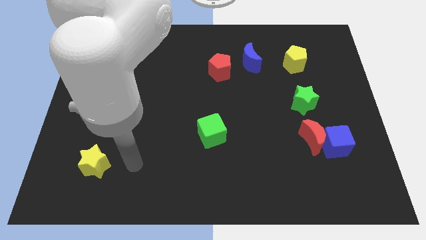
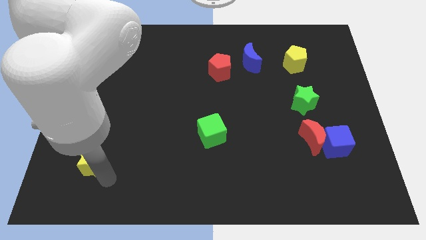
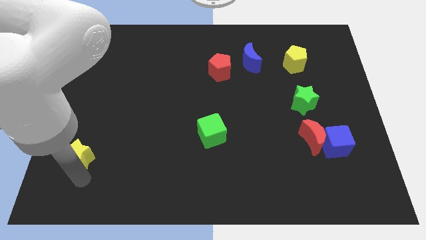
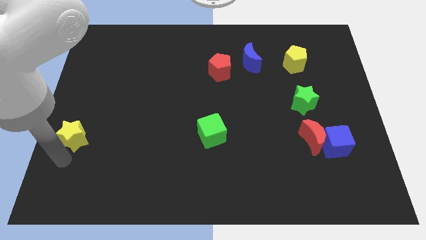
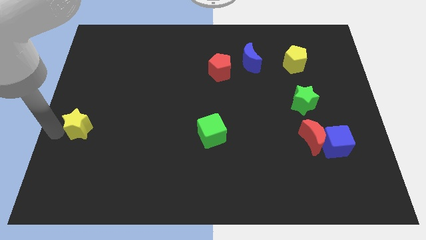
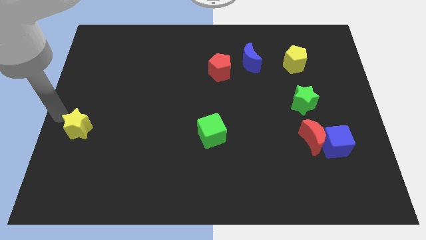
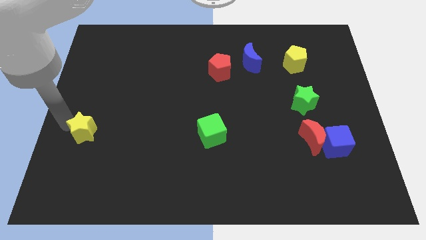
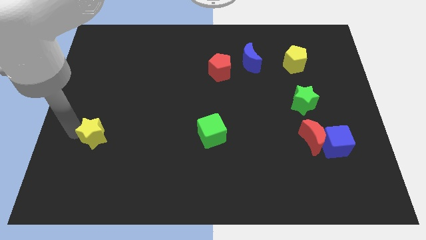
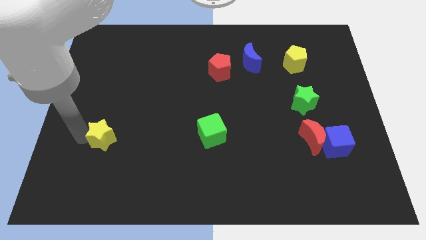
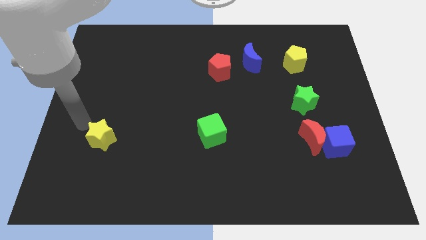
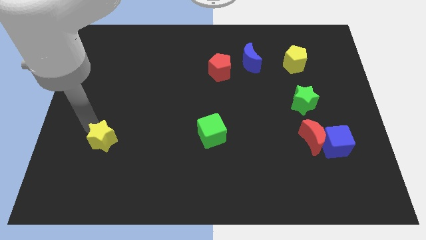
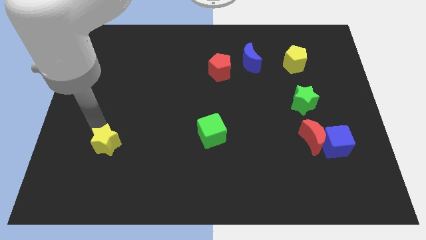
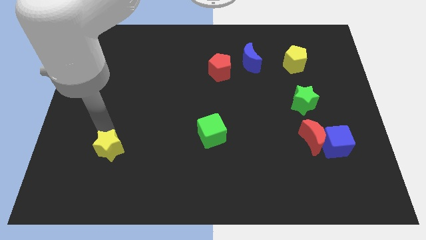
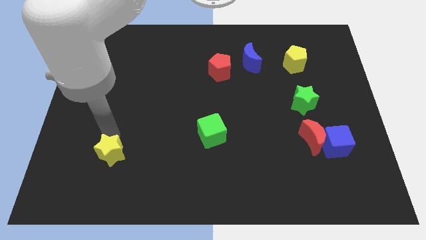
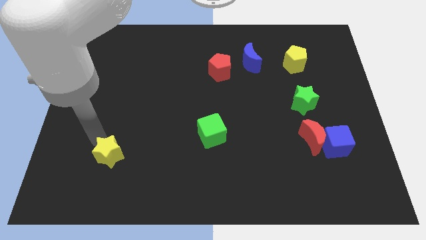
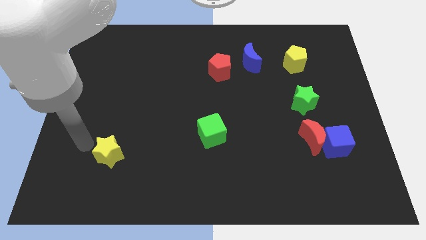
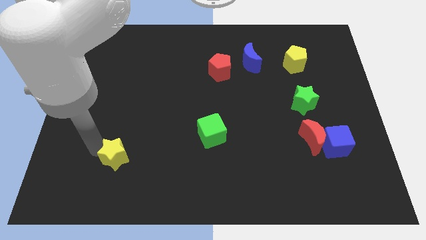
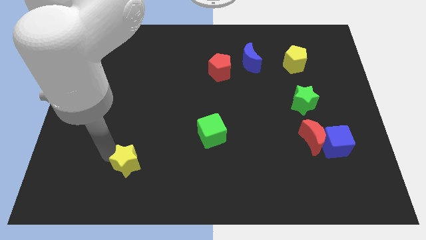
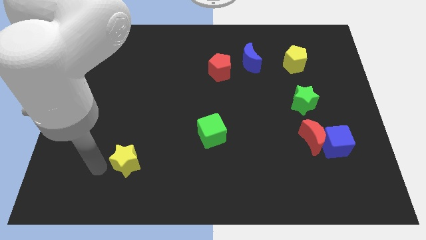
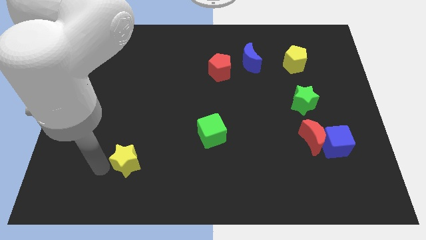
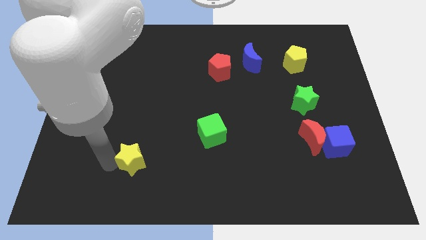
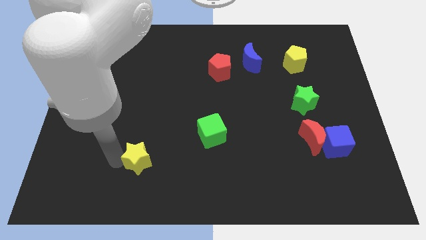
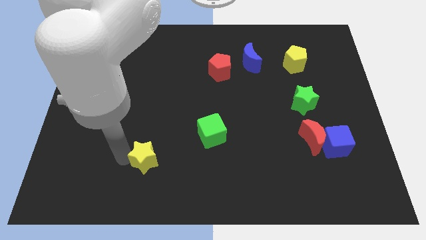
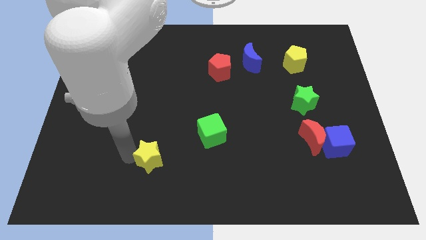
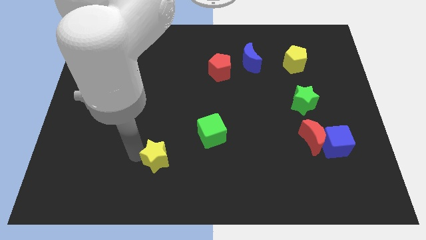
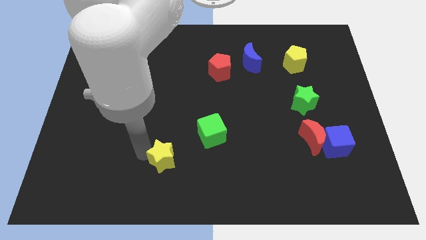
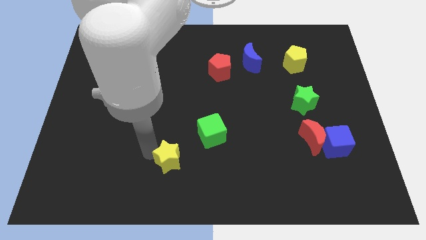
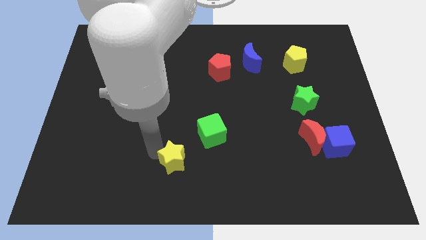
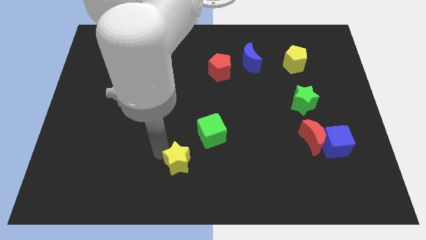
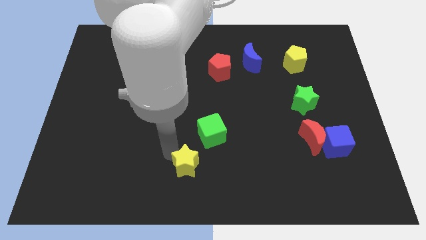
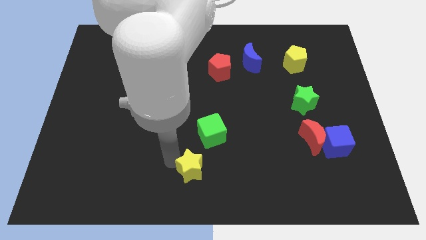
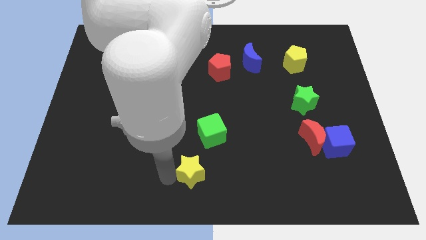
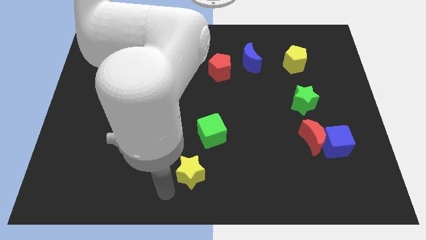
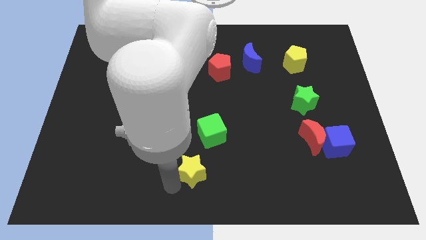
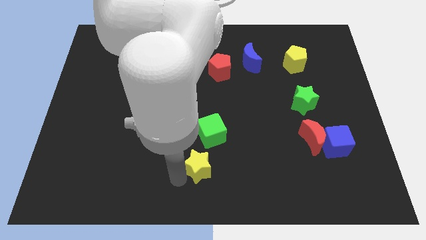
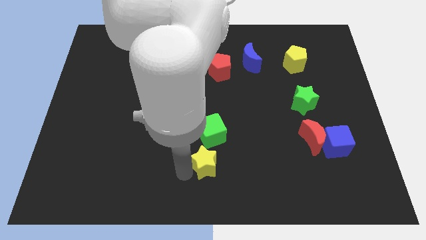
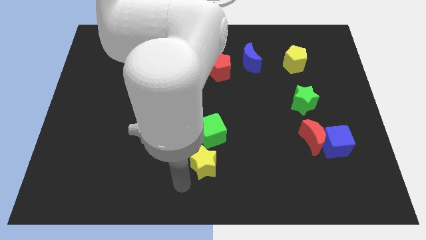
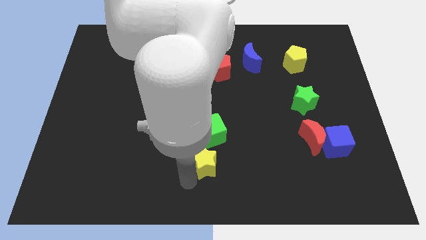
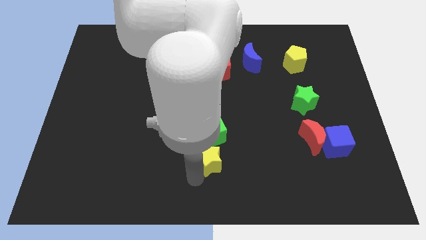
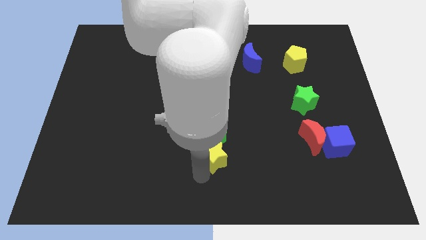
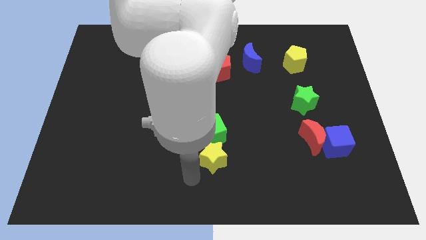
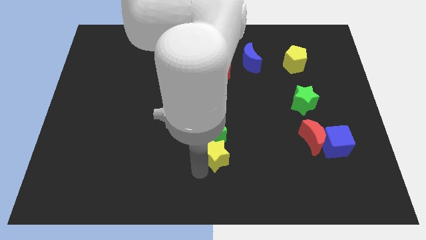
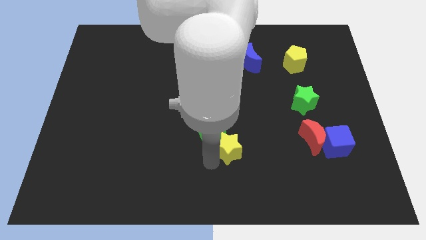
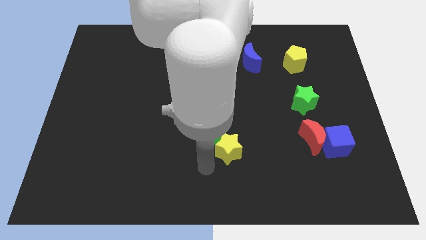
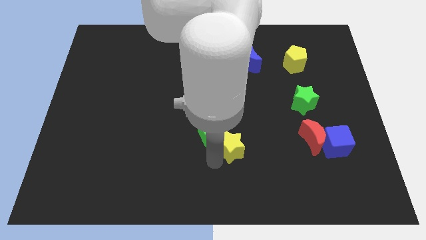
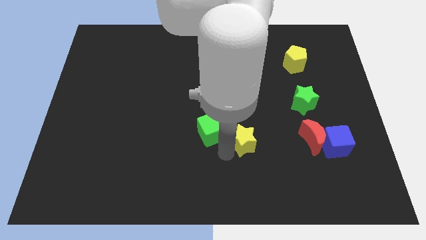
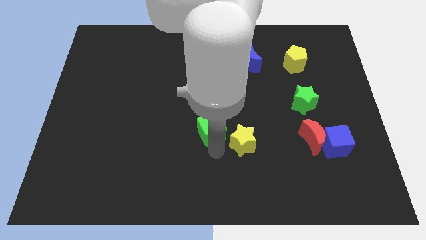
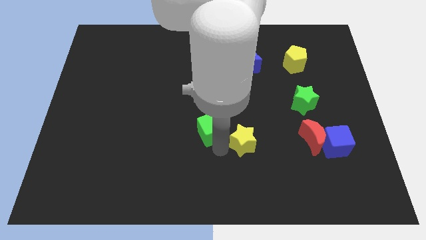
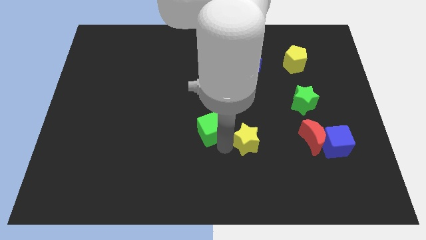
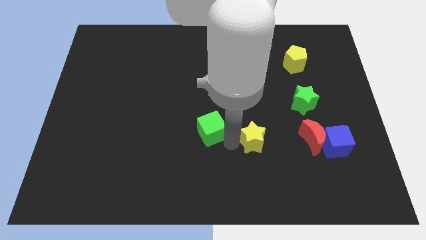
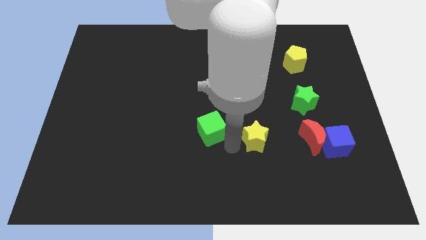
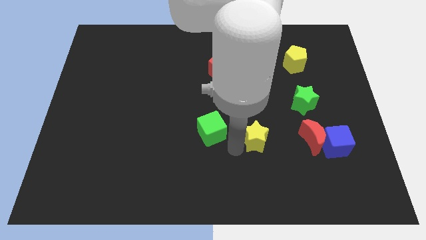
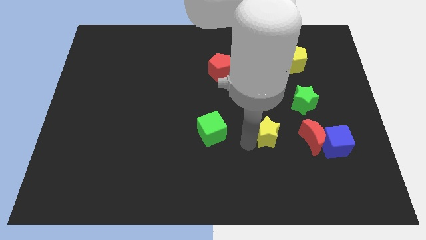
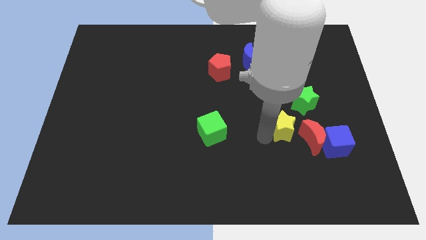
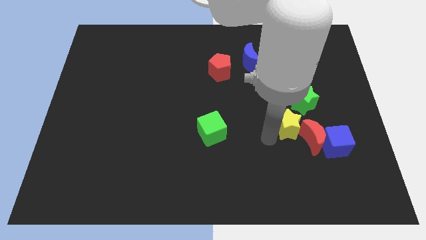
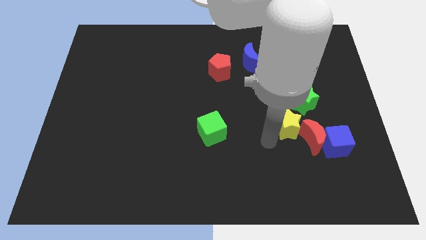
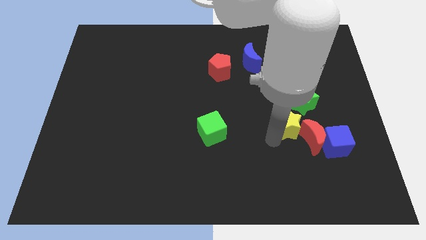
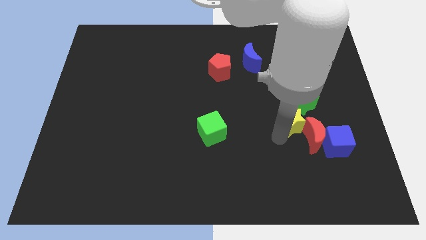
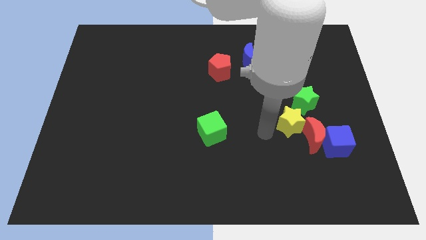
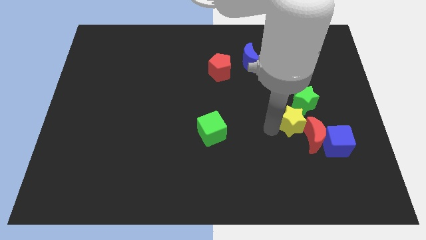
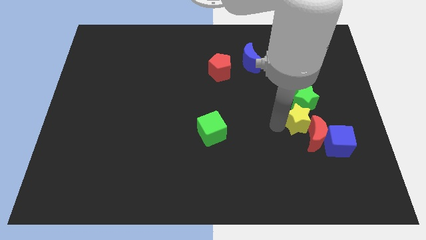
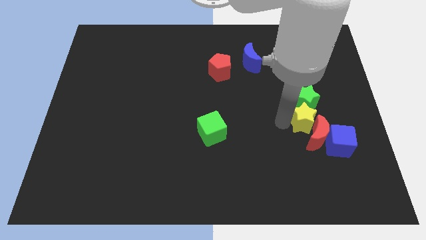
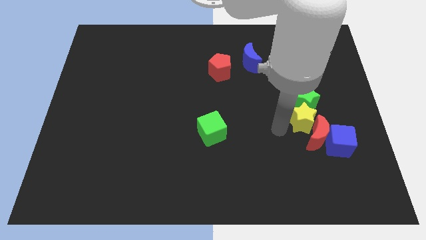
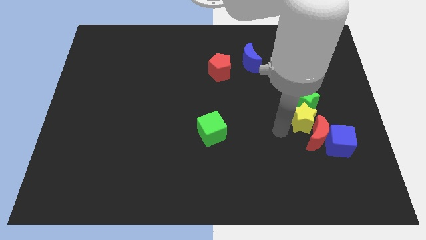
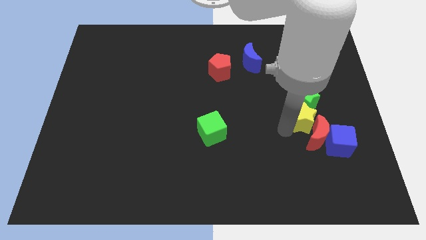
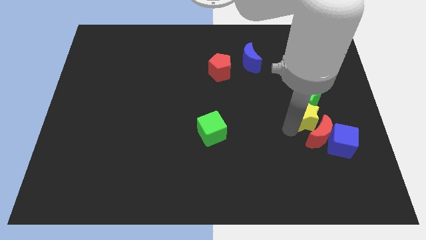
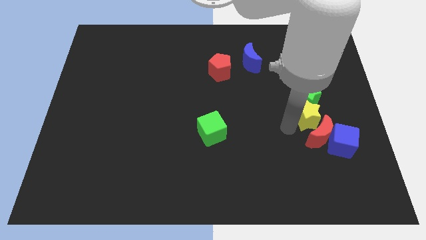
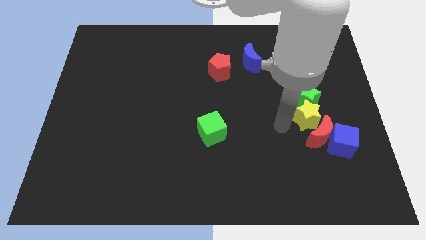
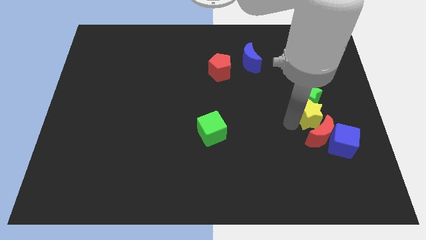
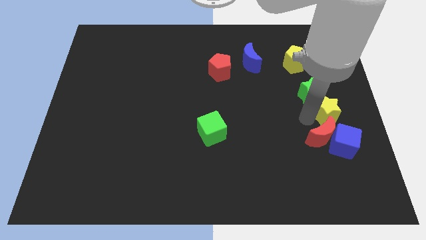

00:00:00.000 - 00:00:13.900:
slide the yellow star to the center right

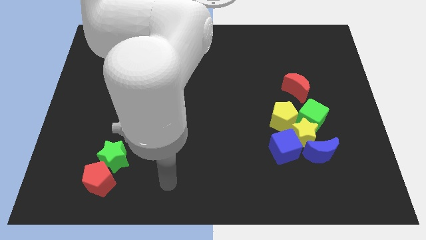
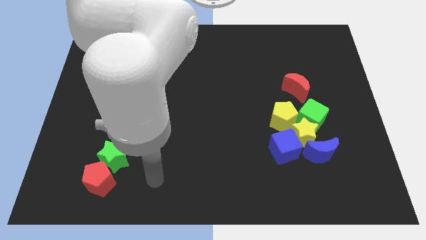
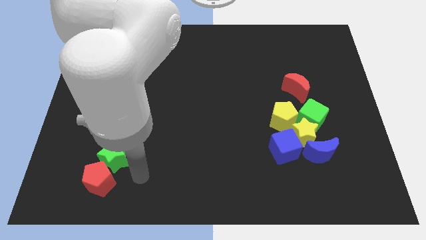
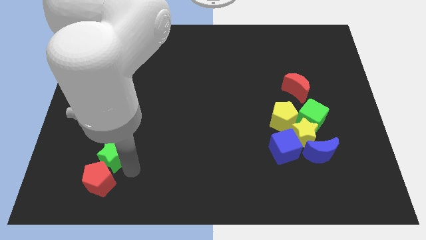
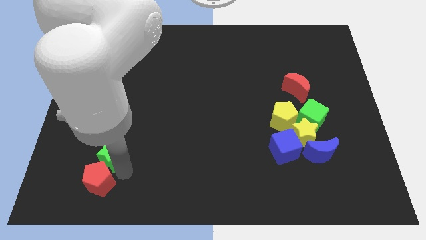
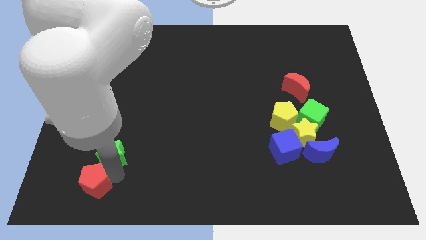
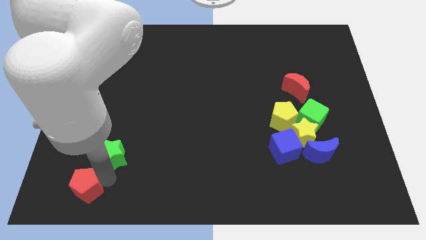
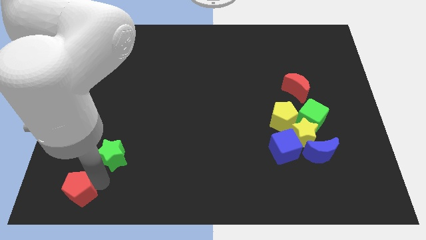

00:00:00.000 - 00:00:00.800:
push the red pentagon to the bottom left corner
